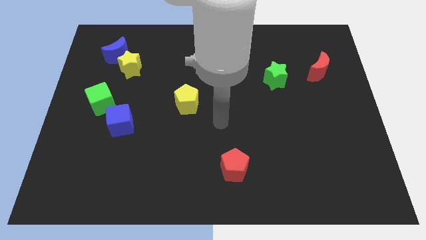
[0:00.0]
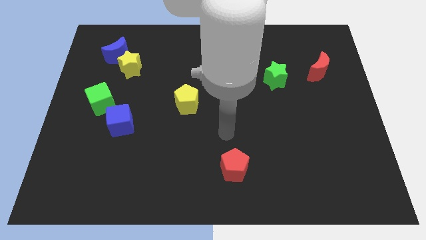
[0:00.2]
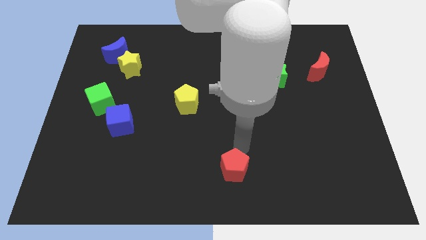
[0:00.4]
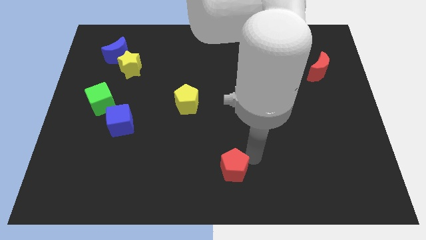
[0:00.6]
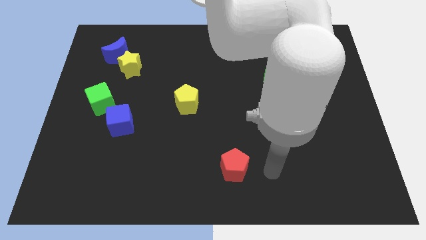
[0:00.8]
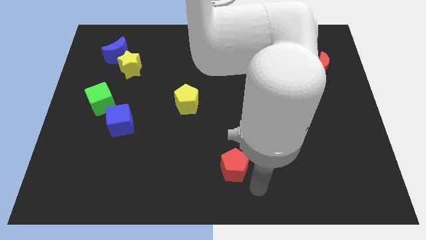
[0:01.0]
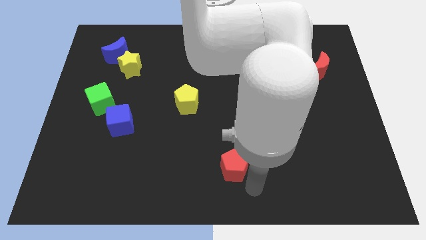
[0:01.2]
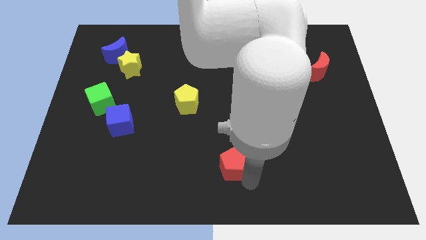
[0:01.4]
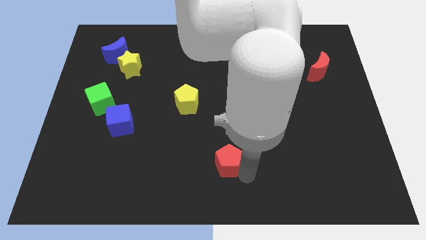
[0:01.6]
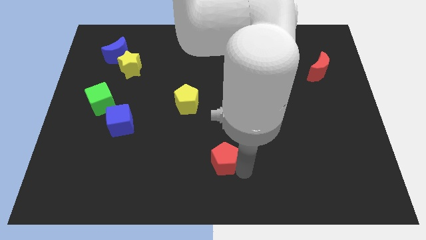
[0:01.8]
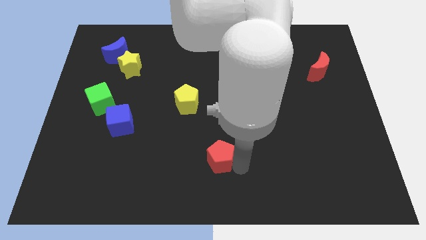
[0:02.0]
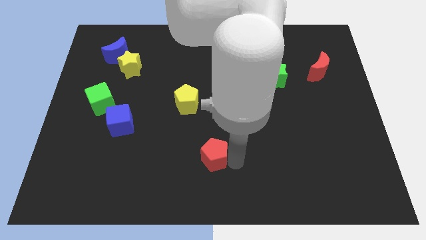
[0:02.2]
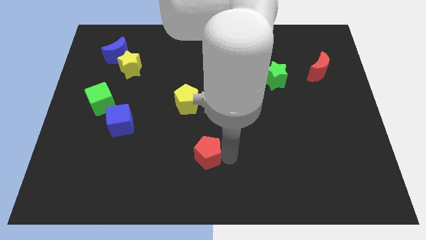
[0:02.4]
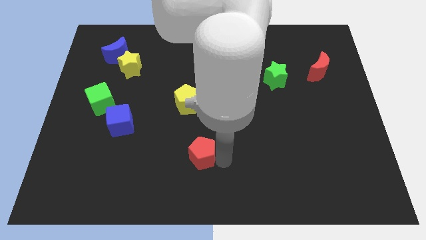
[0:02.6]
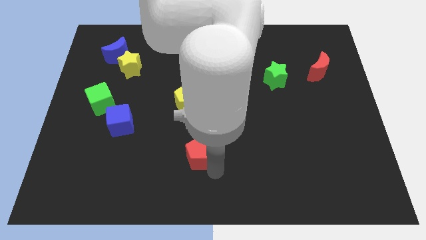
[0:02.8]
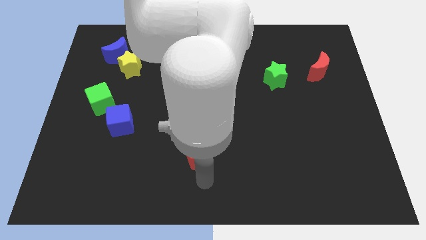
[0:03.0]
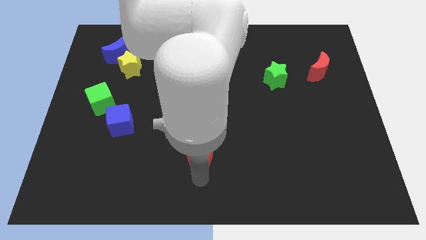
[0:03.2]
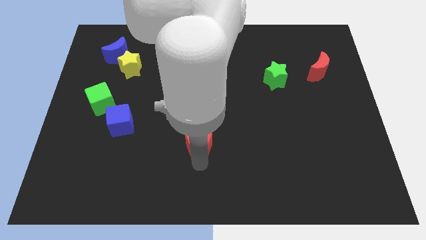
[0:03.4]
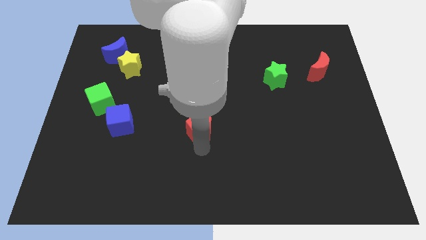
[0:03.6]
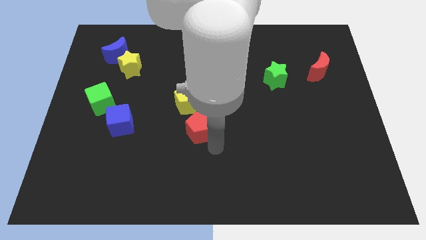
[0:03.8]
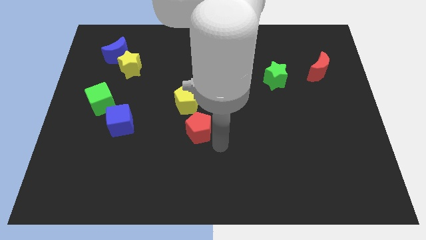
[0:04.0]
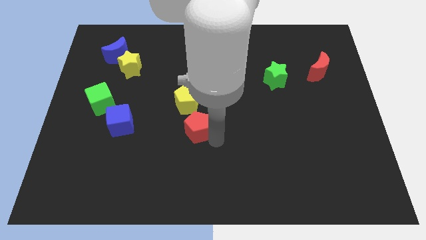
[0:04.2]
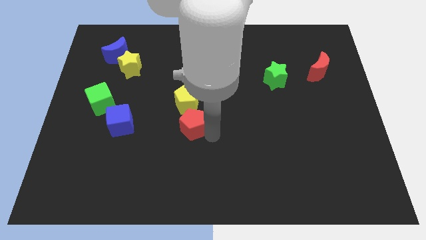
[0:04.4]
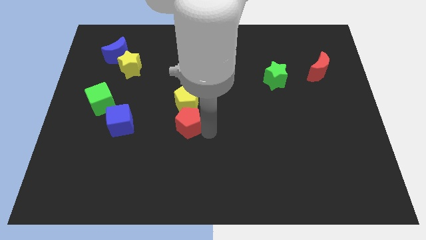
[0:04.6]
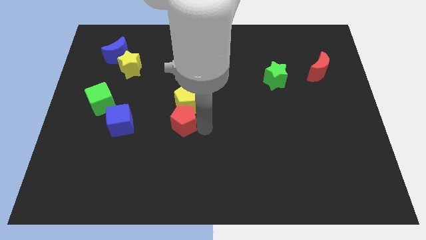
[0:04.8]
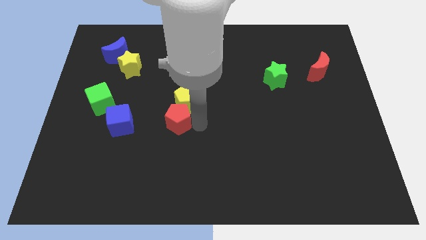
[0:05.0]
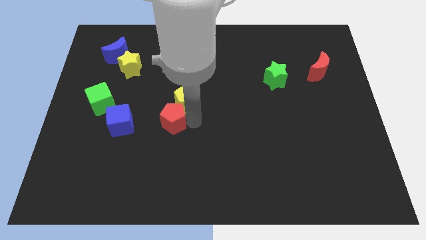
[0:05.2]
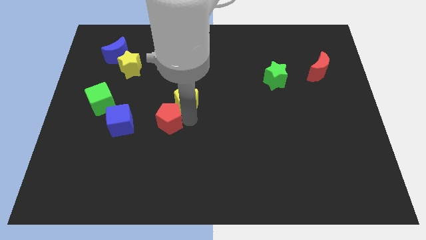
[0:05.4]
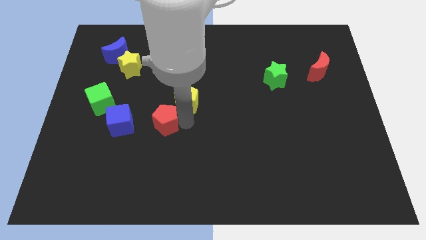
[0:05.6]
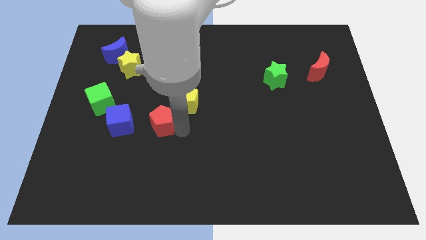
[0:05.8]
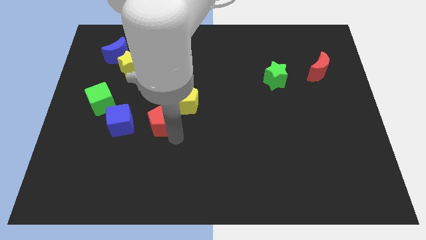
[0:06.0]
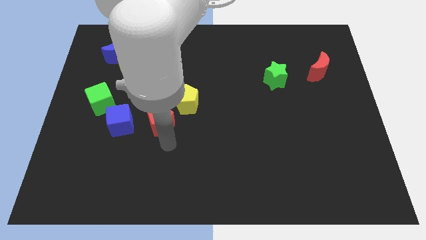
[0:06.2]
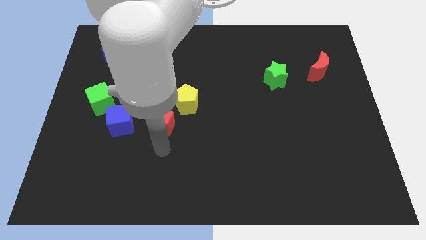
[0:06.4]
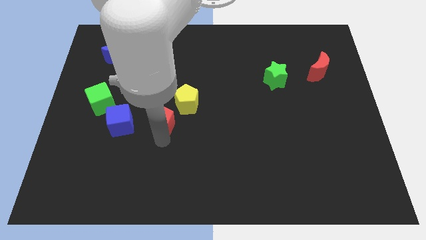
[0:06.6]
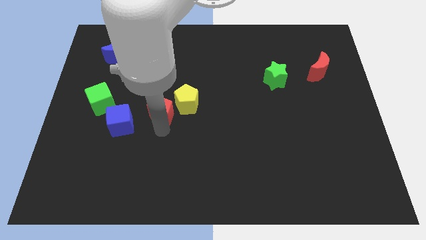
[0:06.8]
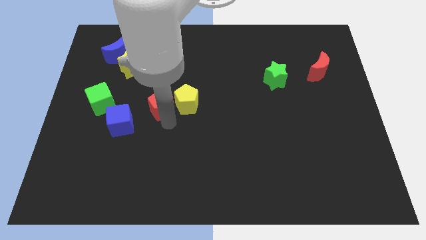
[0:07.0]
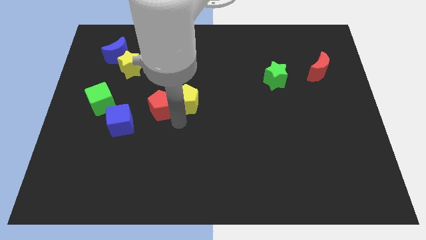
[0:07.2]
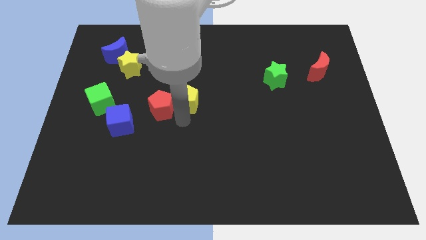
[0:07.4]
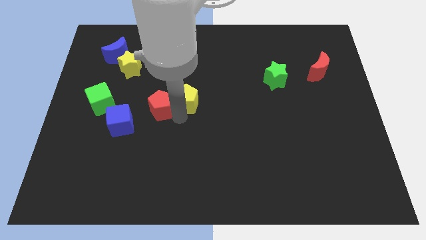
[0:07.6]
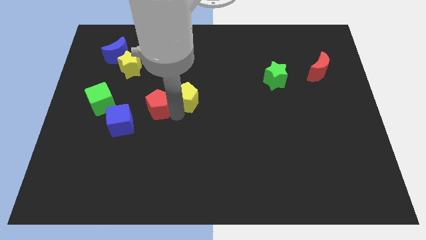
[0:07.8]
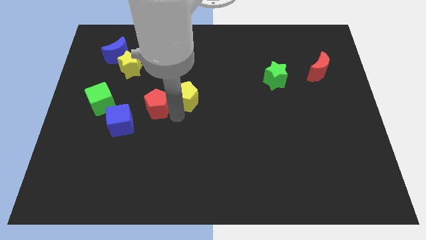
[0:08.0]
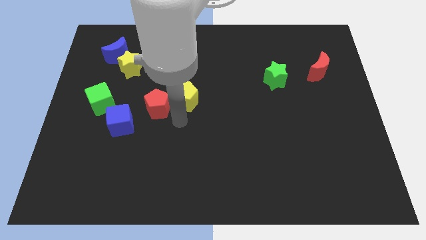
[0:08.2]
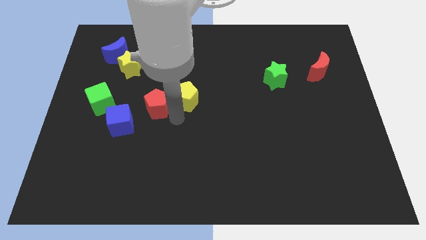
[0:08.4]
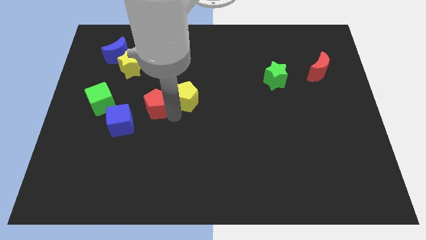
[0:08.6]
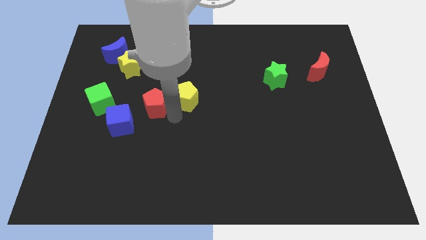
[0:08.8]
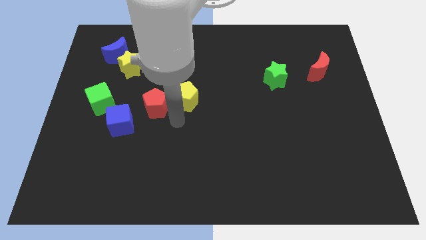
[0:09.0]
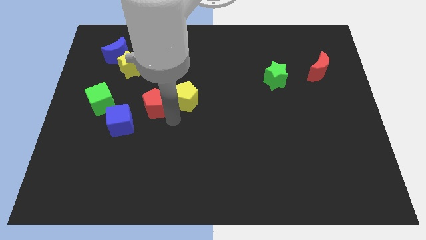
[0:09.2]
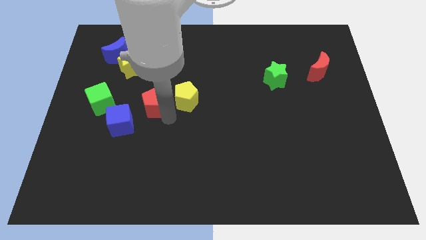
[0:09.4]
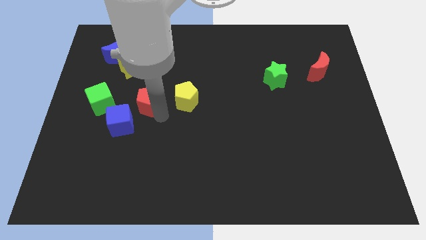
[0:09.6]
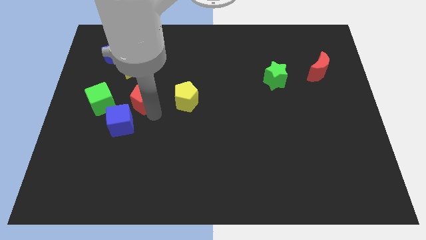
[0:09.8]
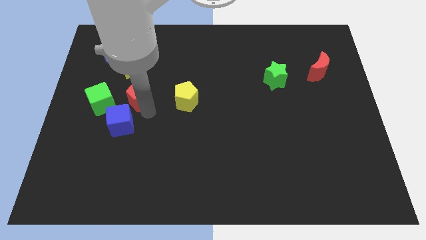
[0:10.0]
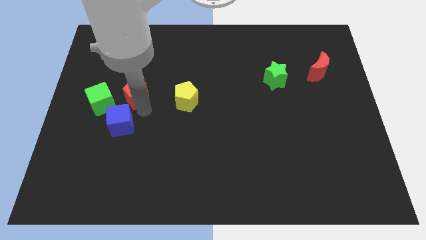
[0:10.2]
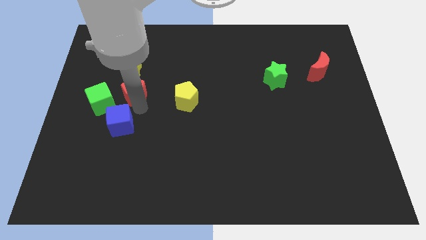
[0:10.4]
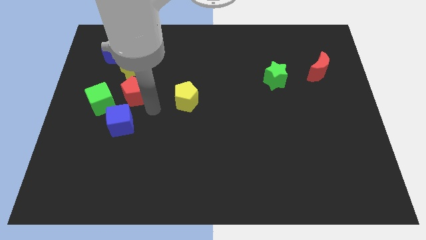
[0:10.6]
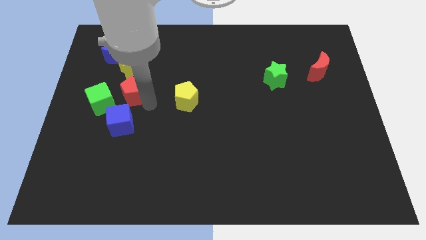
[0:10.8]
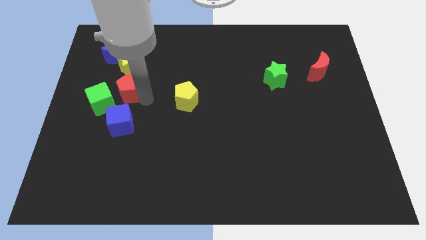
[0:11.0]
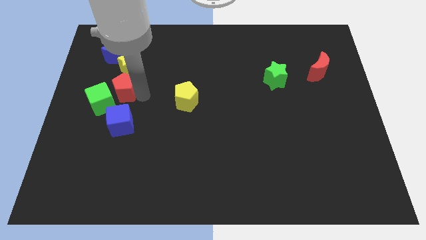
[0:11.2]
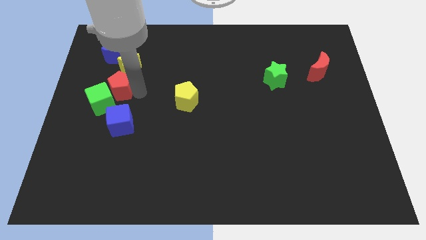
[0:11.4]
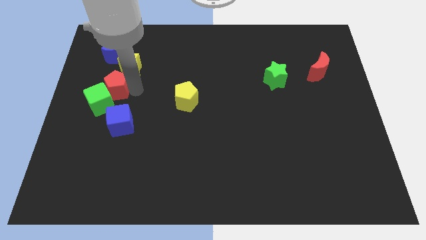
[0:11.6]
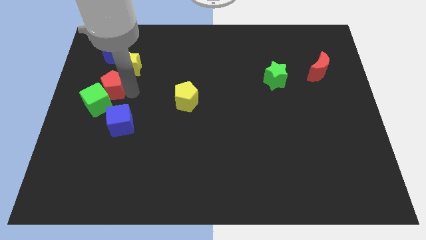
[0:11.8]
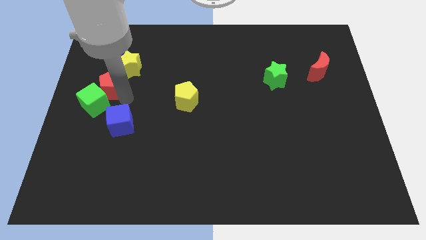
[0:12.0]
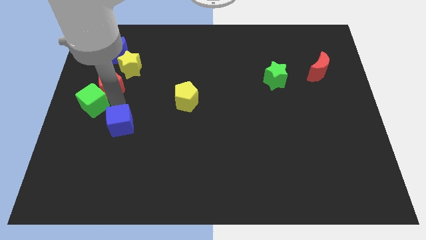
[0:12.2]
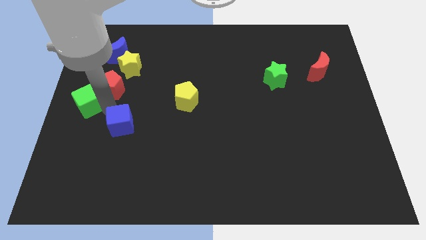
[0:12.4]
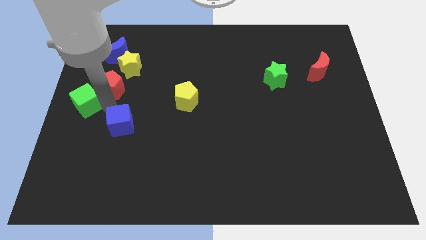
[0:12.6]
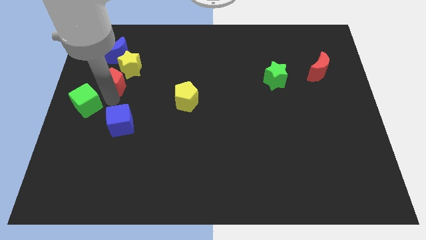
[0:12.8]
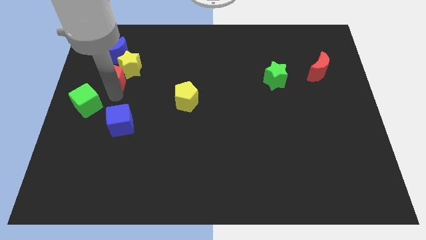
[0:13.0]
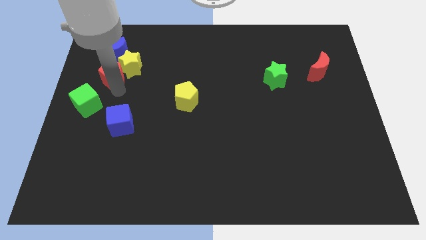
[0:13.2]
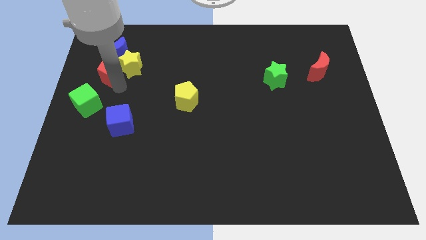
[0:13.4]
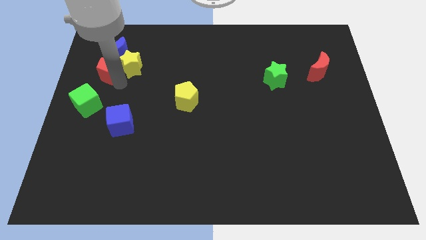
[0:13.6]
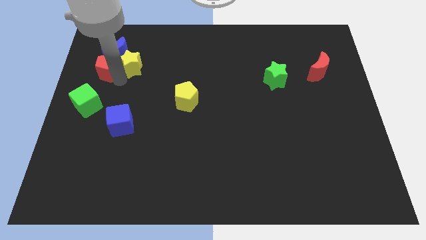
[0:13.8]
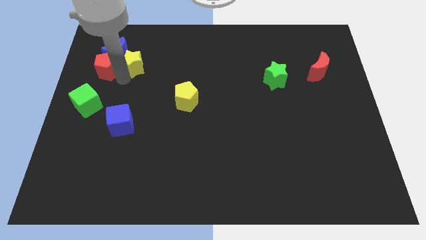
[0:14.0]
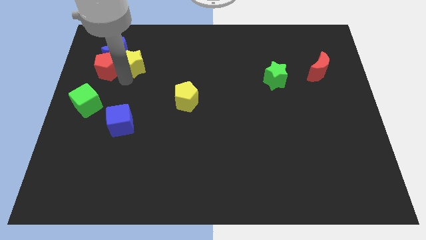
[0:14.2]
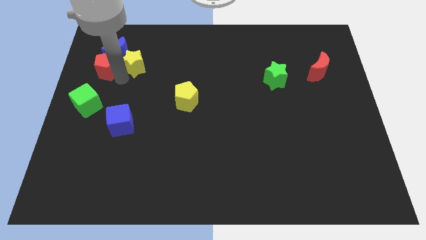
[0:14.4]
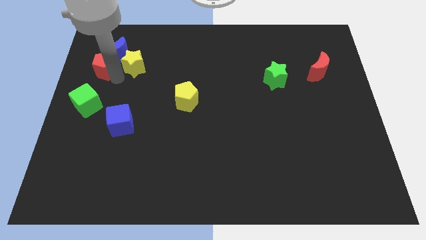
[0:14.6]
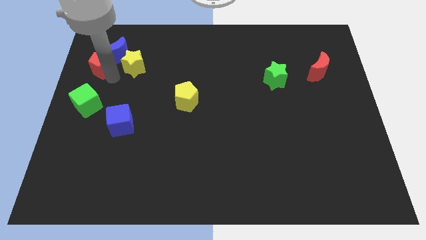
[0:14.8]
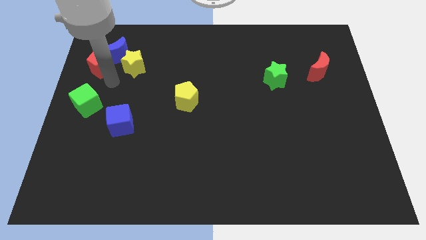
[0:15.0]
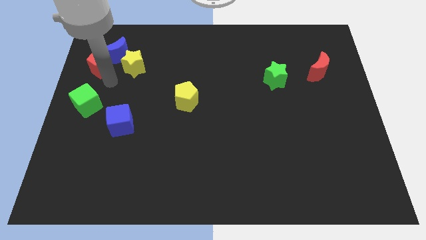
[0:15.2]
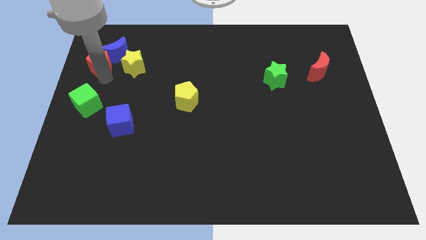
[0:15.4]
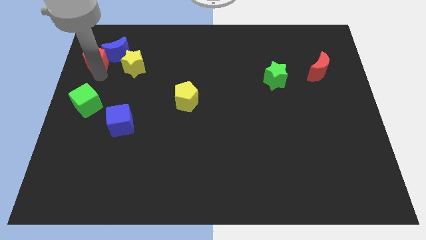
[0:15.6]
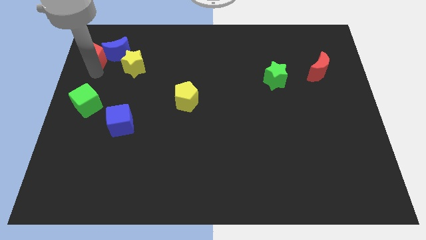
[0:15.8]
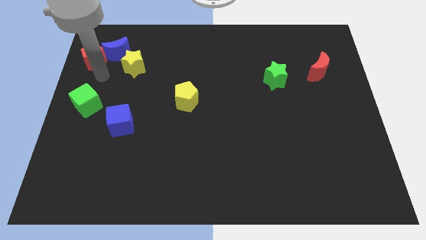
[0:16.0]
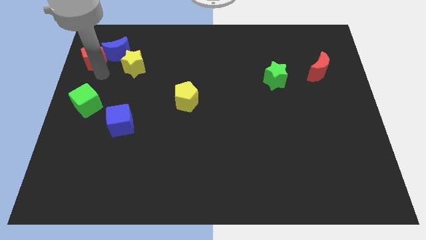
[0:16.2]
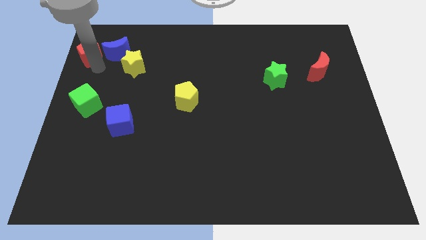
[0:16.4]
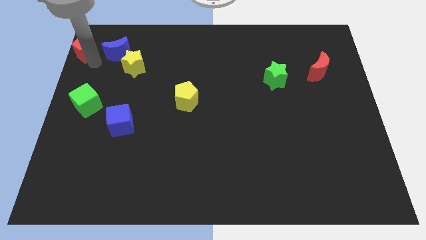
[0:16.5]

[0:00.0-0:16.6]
move the red pentagon to the upper left corner
